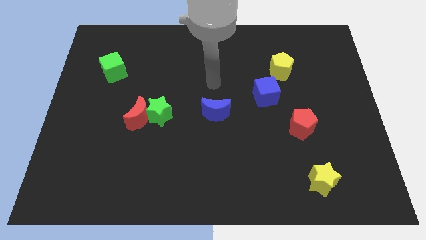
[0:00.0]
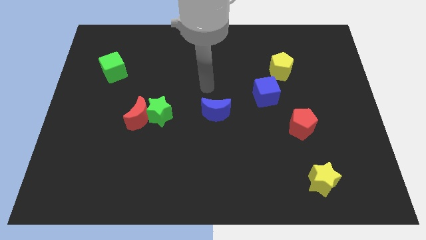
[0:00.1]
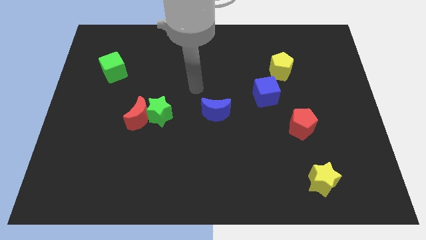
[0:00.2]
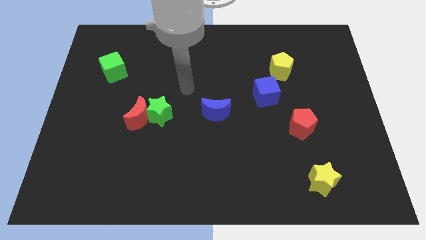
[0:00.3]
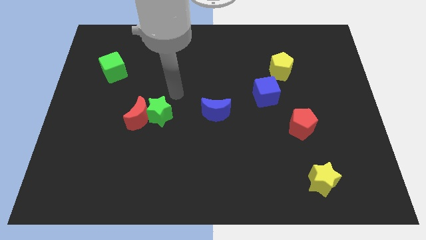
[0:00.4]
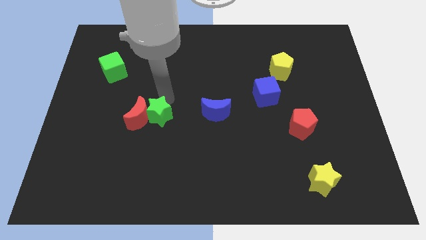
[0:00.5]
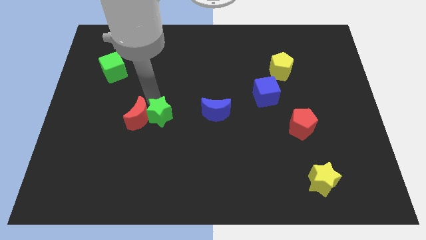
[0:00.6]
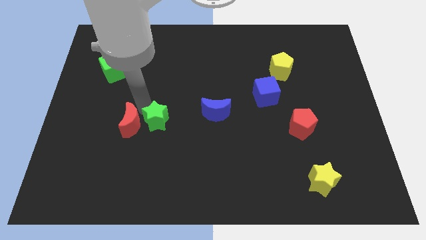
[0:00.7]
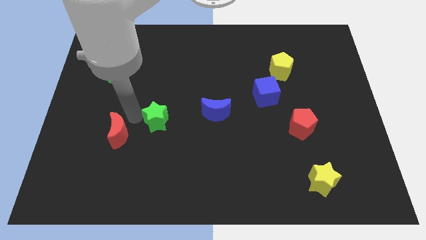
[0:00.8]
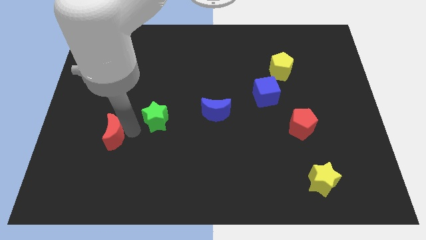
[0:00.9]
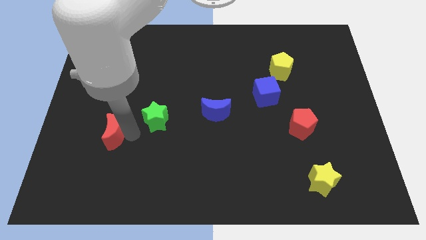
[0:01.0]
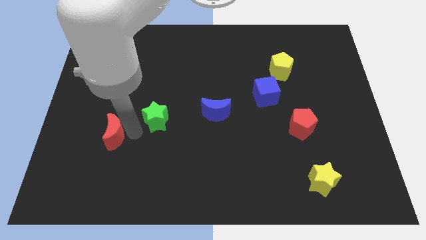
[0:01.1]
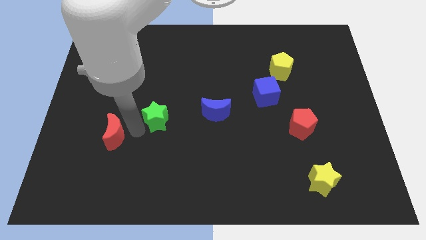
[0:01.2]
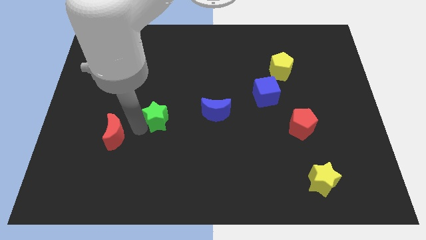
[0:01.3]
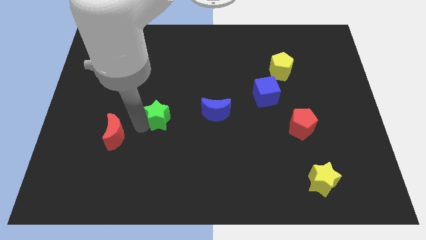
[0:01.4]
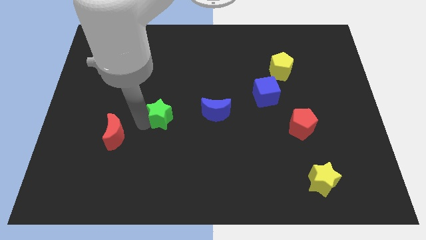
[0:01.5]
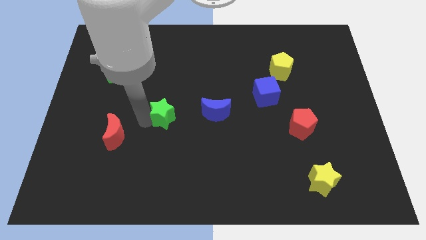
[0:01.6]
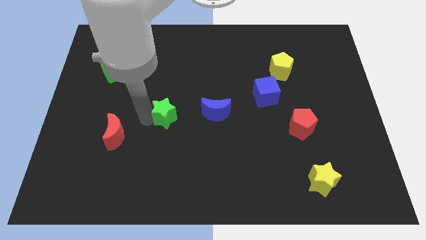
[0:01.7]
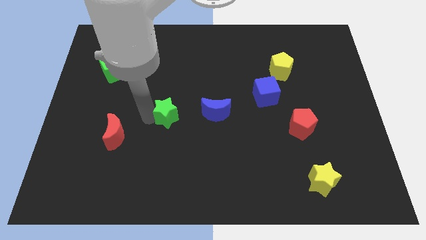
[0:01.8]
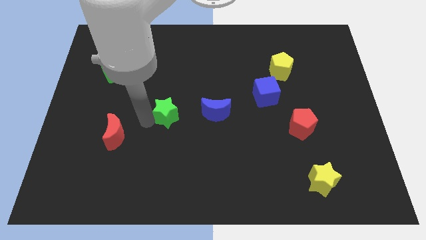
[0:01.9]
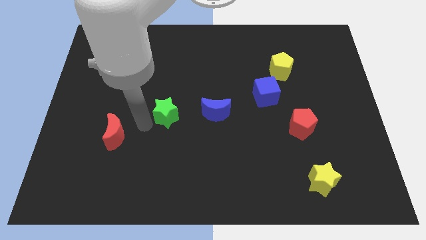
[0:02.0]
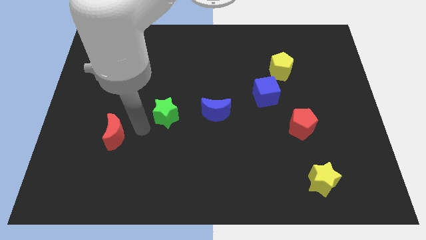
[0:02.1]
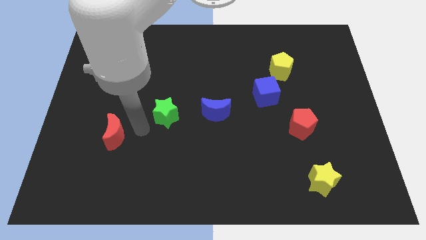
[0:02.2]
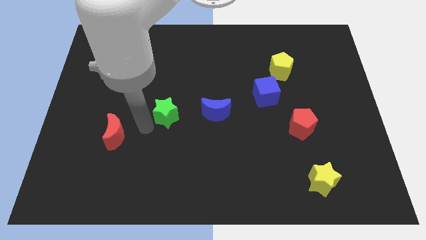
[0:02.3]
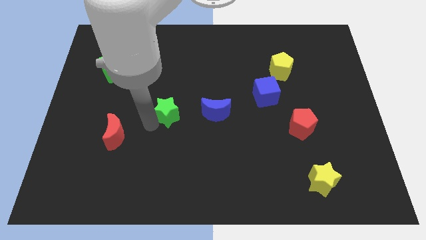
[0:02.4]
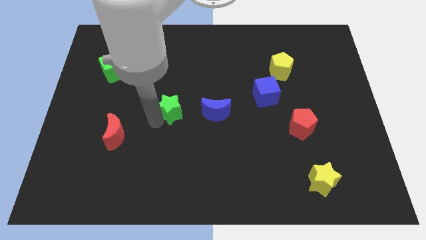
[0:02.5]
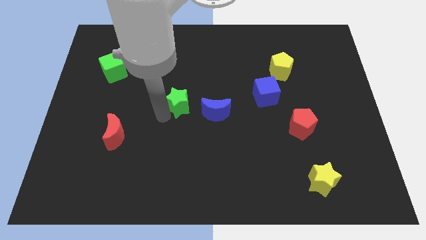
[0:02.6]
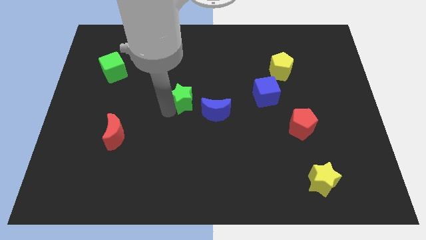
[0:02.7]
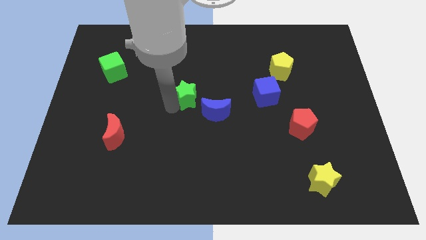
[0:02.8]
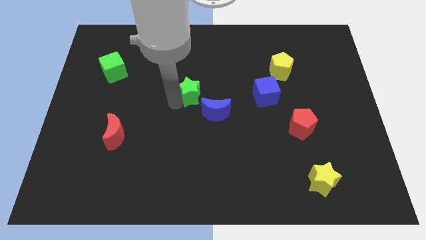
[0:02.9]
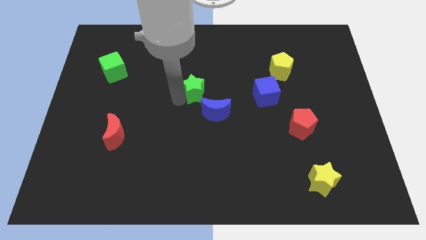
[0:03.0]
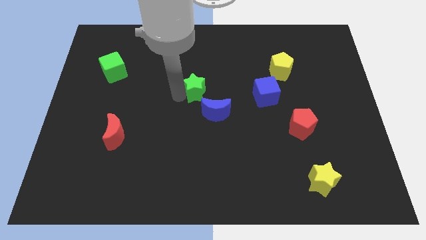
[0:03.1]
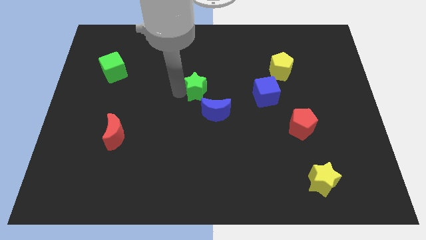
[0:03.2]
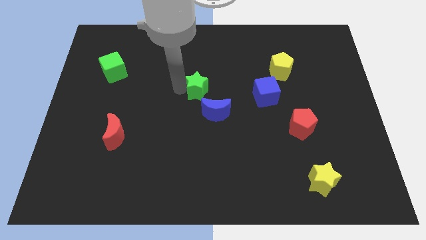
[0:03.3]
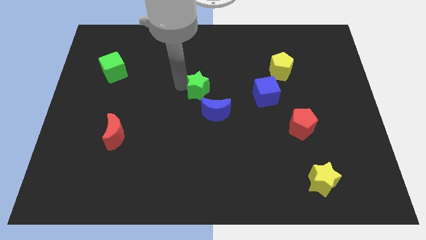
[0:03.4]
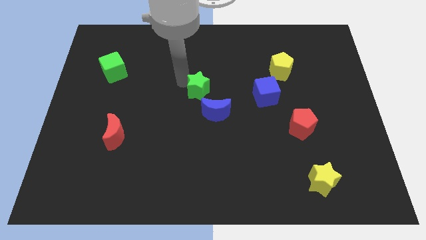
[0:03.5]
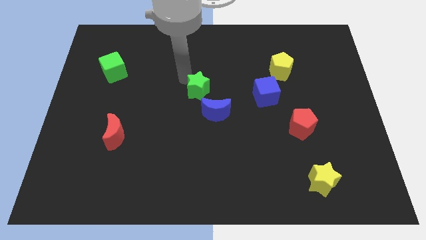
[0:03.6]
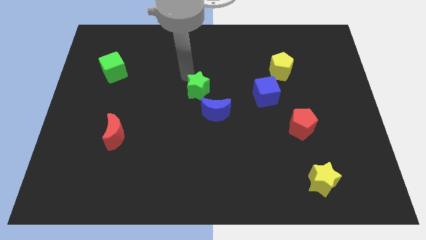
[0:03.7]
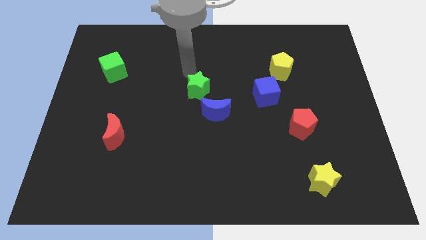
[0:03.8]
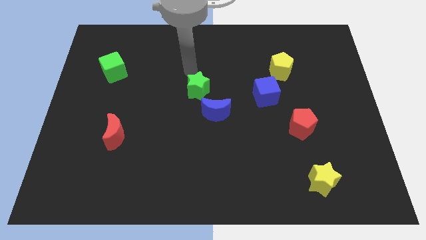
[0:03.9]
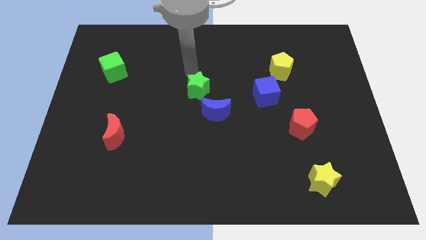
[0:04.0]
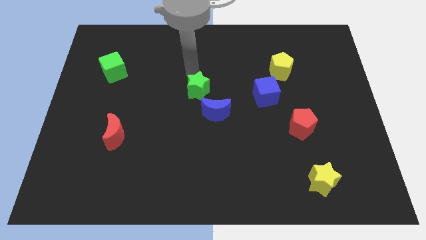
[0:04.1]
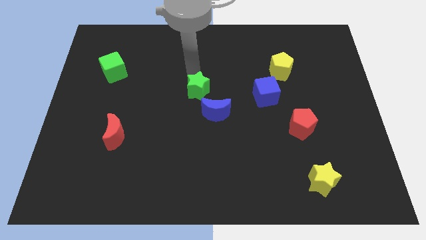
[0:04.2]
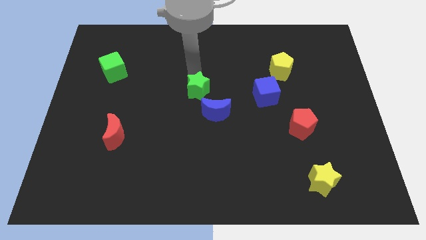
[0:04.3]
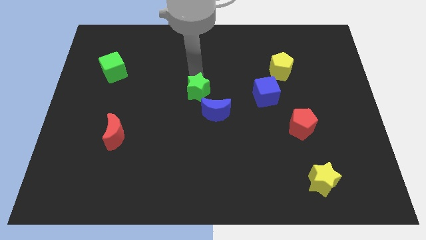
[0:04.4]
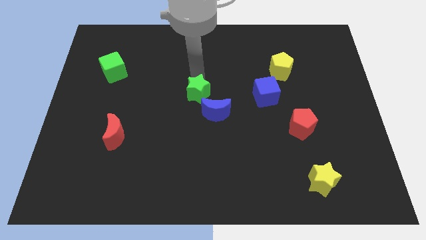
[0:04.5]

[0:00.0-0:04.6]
move the green star to the right a bit

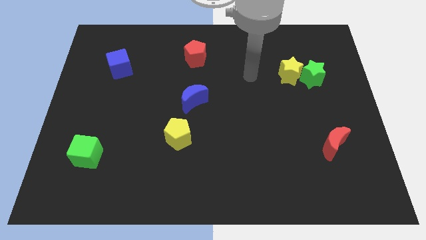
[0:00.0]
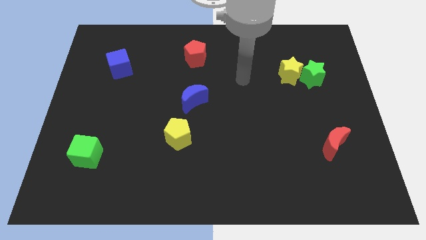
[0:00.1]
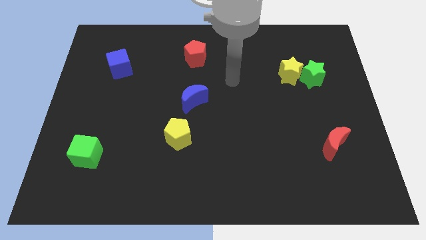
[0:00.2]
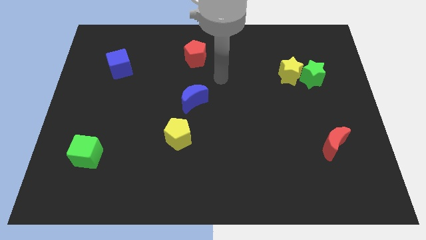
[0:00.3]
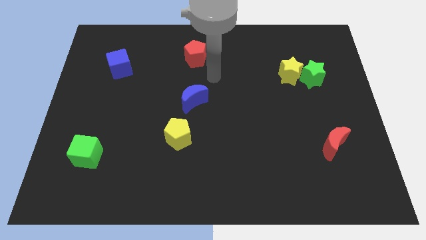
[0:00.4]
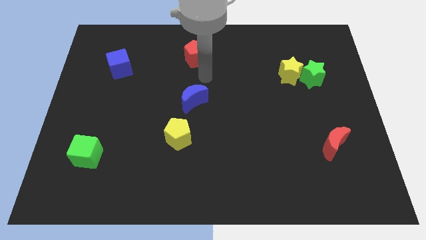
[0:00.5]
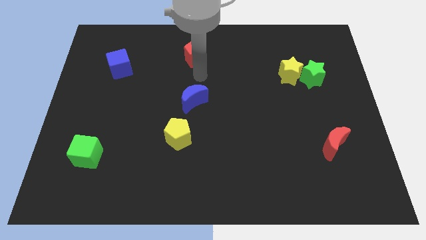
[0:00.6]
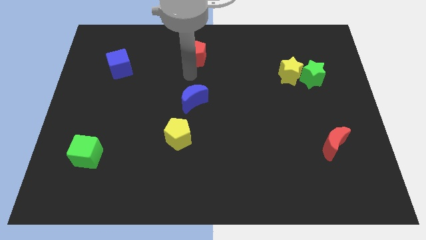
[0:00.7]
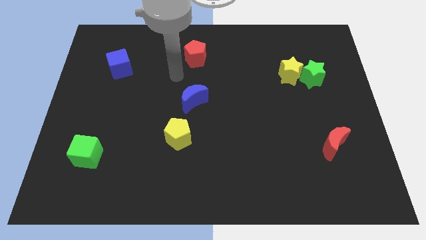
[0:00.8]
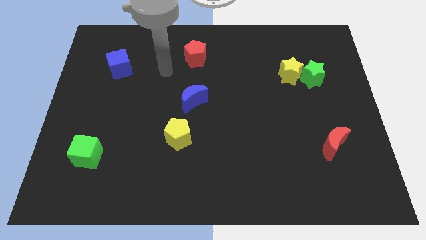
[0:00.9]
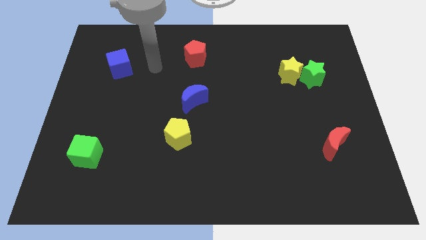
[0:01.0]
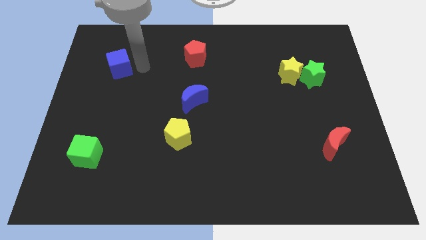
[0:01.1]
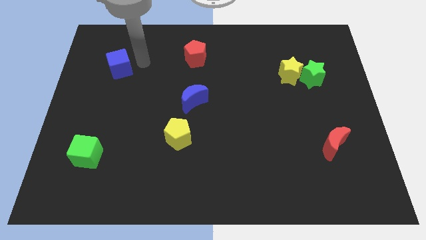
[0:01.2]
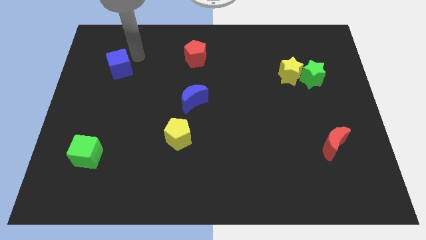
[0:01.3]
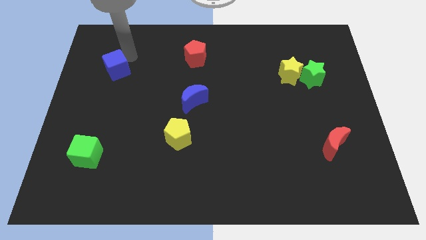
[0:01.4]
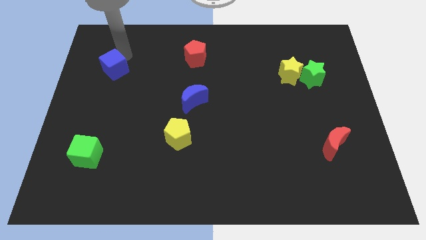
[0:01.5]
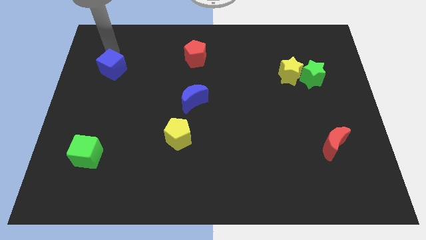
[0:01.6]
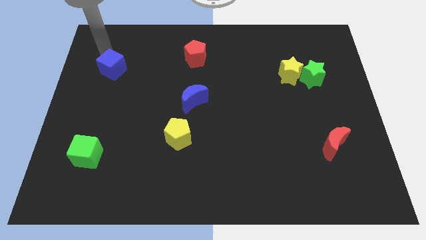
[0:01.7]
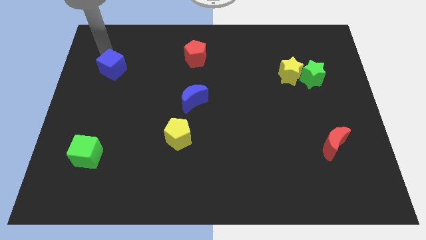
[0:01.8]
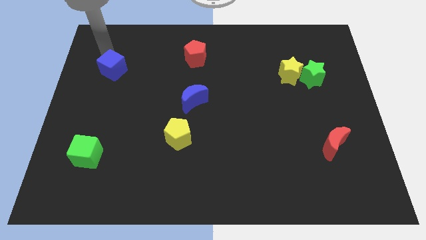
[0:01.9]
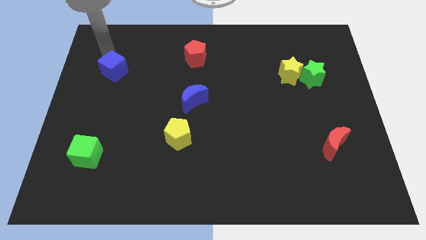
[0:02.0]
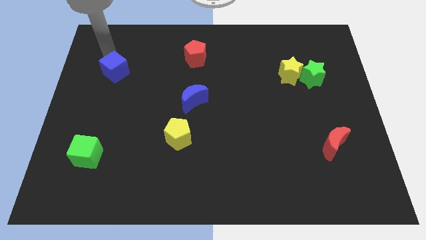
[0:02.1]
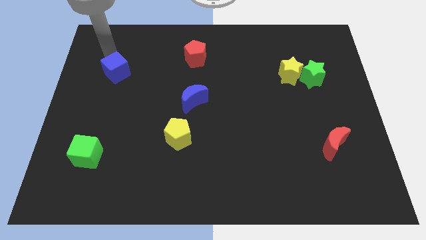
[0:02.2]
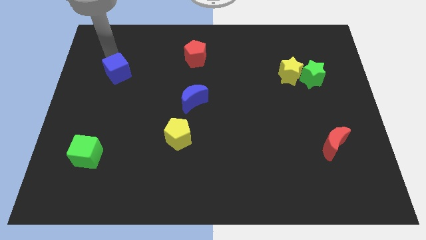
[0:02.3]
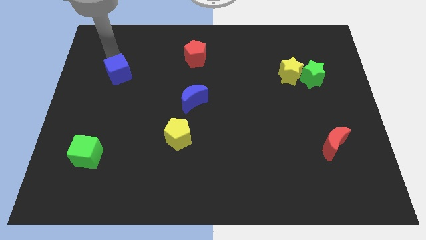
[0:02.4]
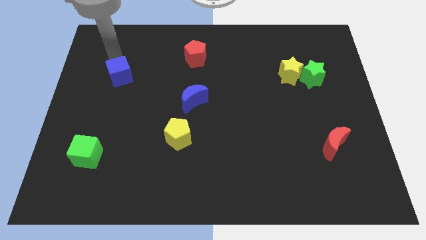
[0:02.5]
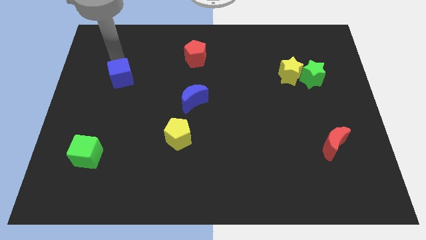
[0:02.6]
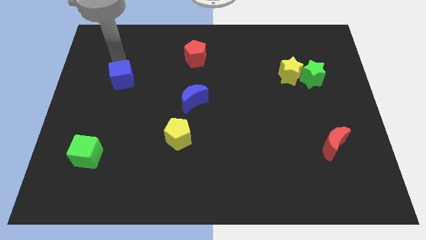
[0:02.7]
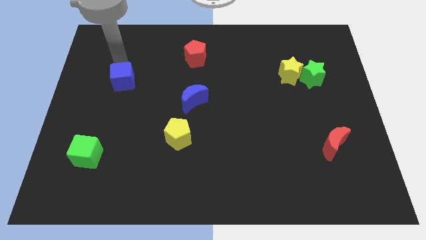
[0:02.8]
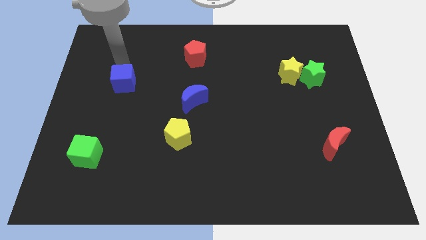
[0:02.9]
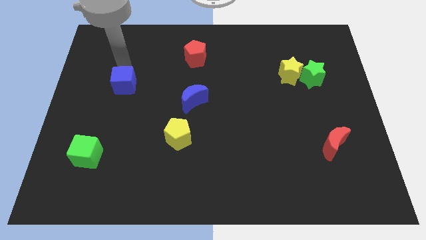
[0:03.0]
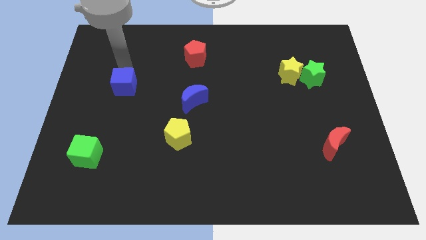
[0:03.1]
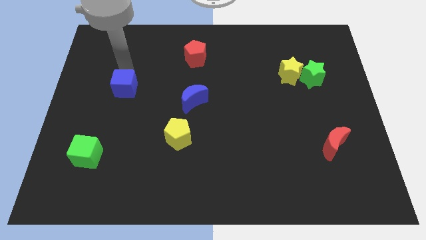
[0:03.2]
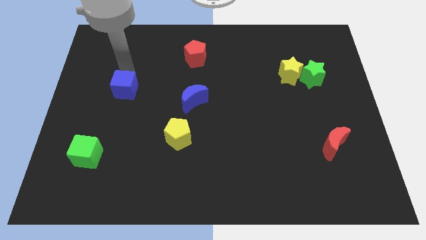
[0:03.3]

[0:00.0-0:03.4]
slide the blue cube down slightly

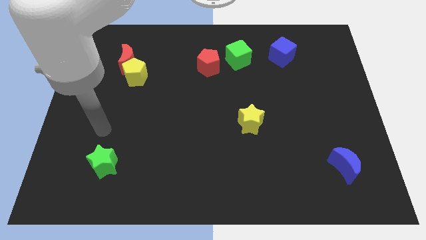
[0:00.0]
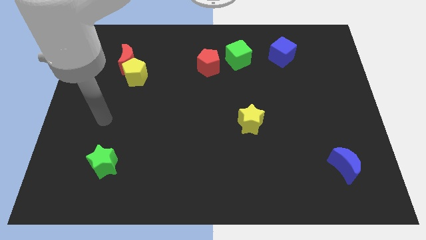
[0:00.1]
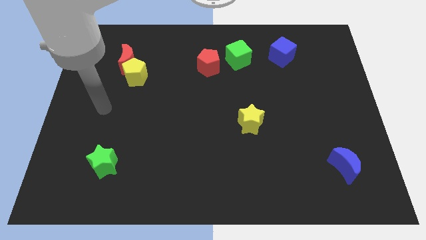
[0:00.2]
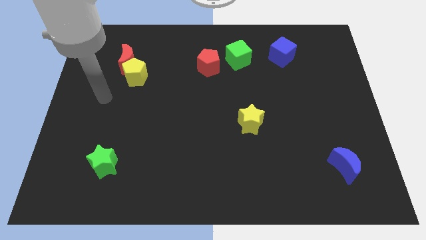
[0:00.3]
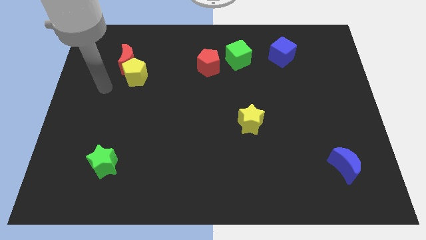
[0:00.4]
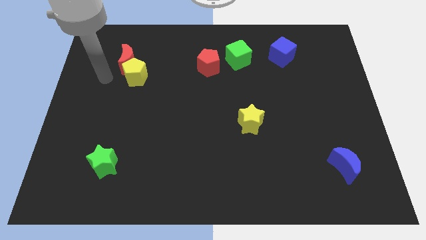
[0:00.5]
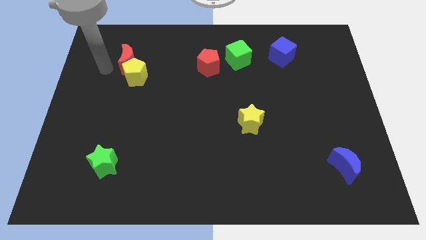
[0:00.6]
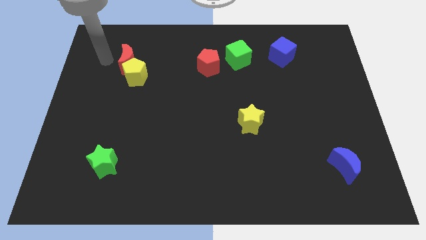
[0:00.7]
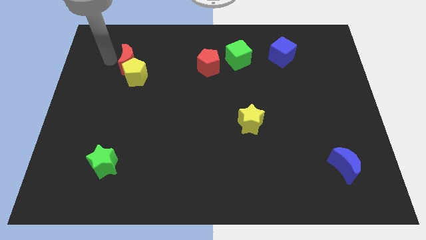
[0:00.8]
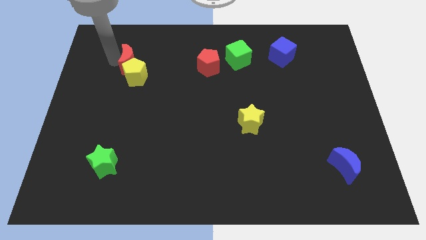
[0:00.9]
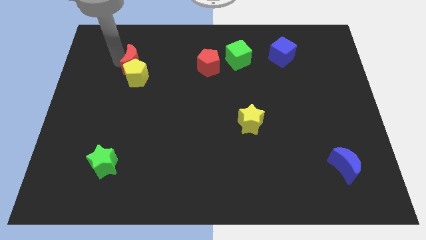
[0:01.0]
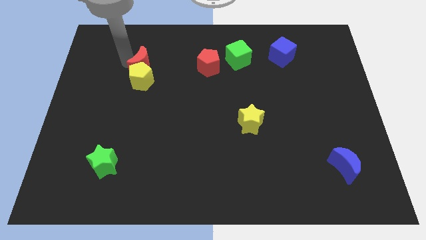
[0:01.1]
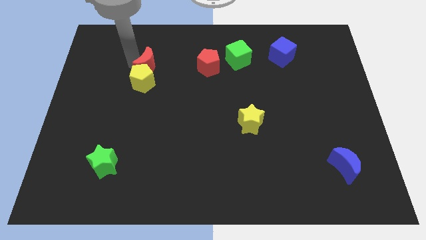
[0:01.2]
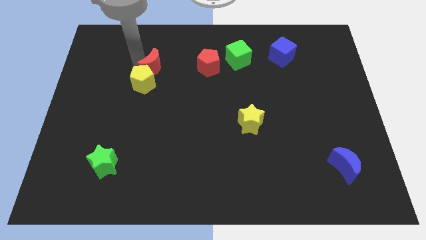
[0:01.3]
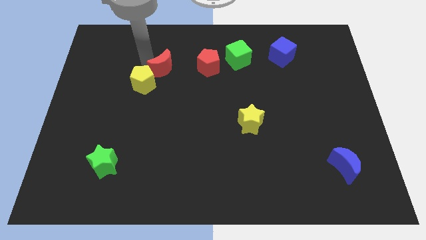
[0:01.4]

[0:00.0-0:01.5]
slightly slide the red moon downwards and to the right diagonally
